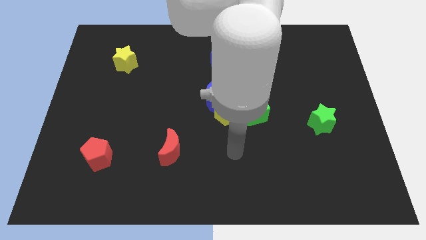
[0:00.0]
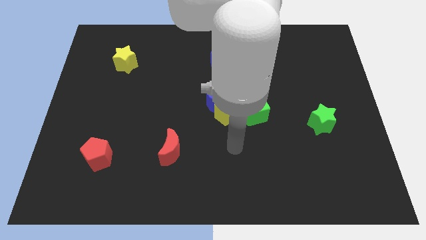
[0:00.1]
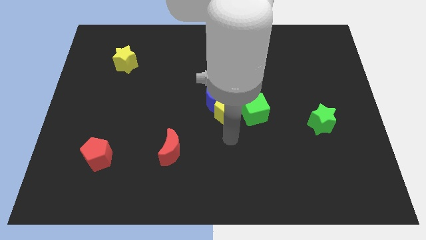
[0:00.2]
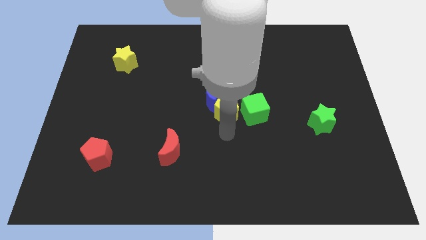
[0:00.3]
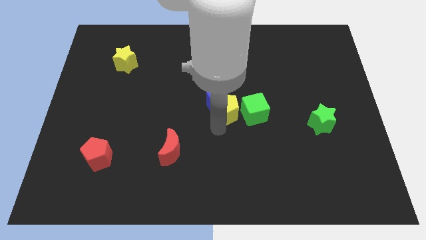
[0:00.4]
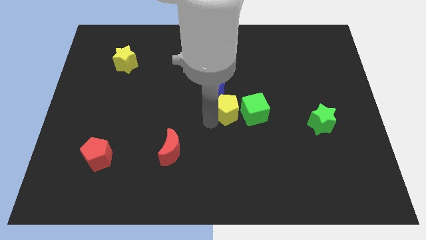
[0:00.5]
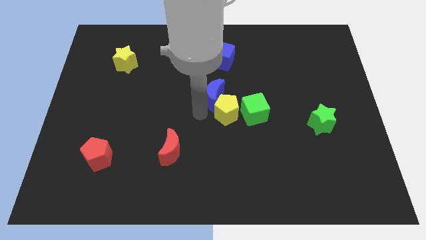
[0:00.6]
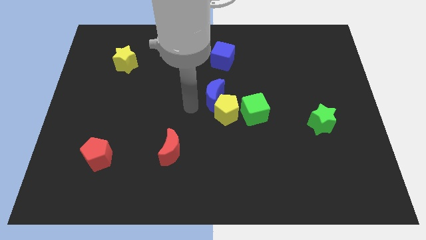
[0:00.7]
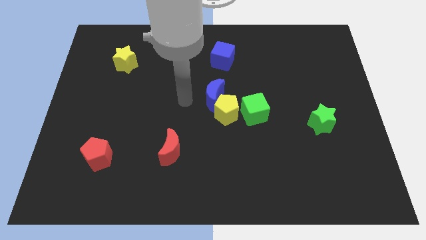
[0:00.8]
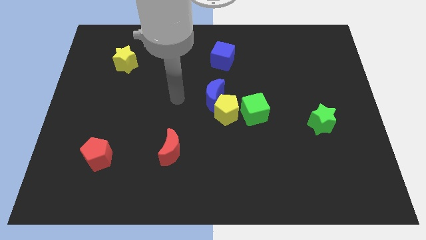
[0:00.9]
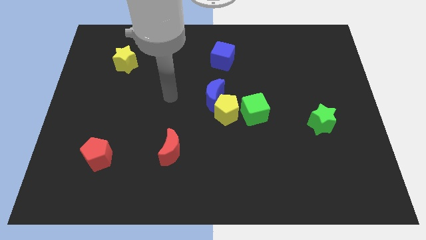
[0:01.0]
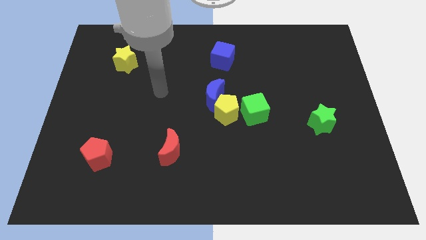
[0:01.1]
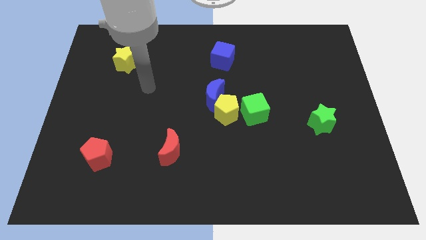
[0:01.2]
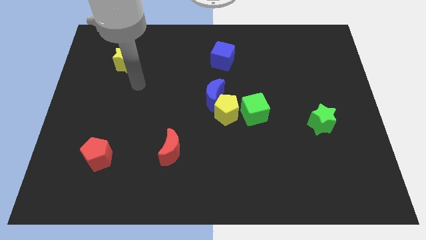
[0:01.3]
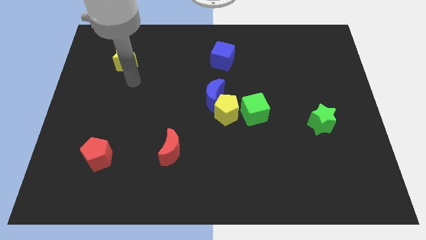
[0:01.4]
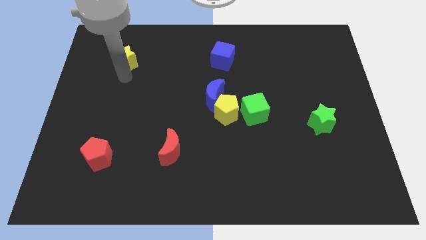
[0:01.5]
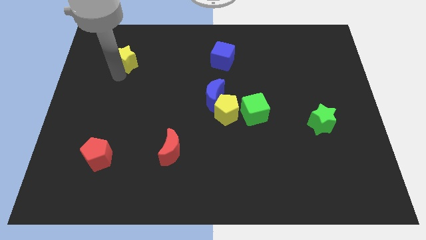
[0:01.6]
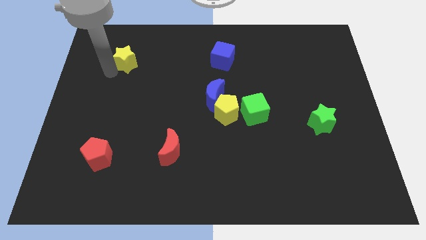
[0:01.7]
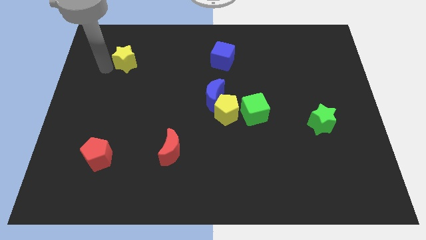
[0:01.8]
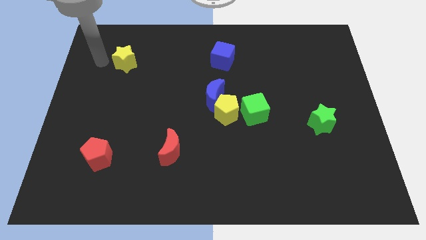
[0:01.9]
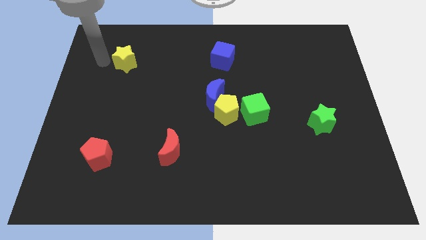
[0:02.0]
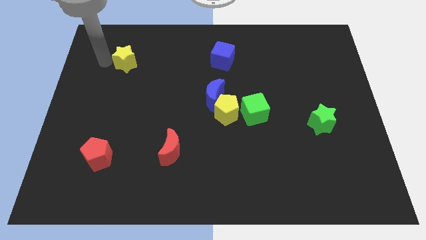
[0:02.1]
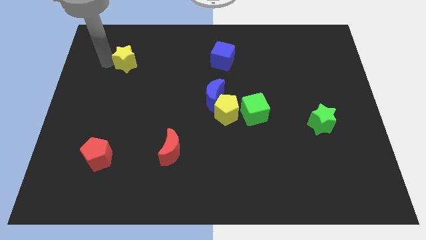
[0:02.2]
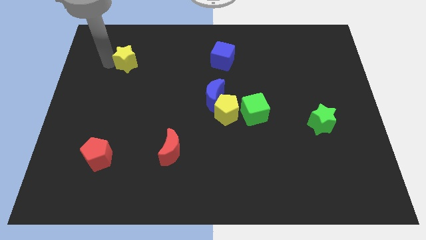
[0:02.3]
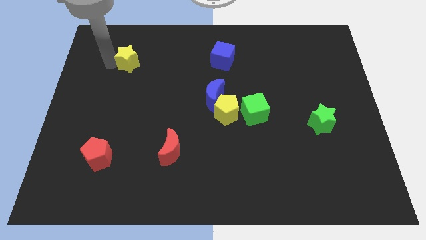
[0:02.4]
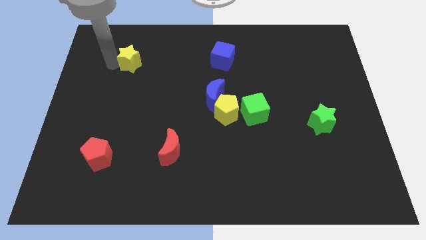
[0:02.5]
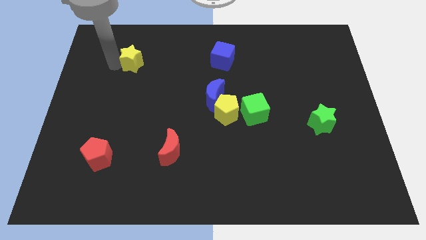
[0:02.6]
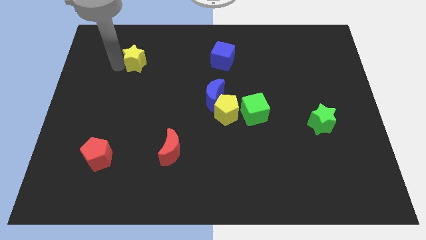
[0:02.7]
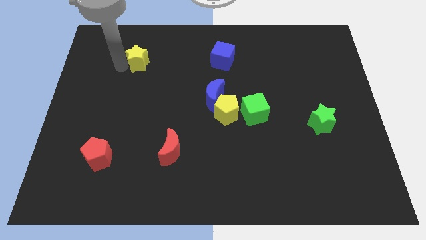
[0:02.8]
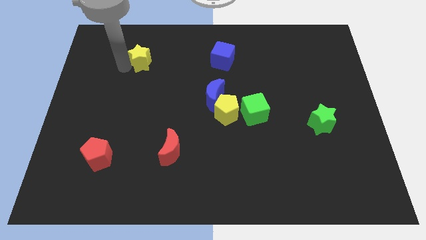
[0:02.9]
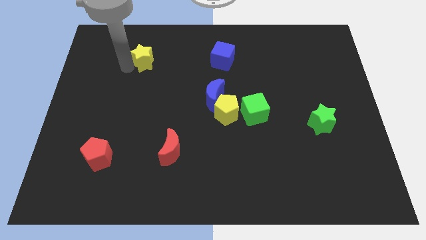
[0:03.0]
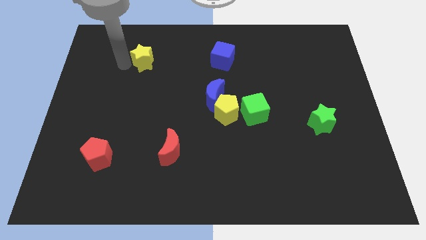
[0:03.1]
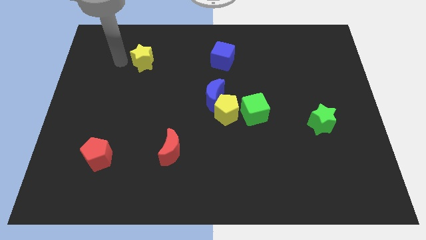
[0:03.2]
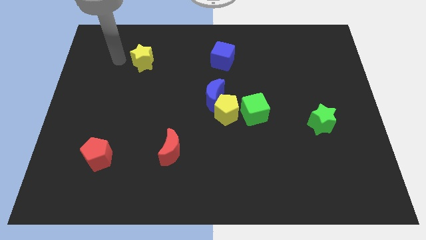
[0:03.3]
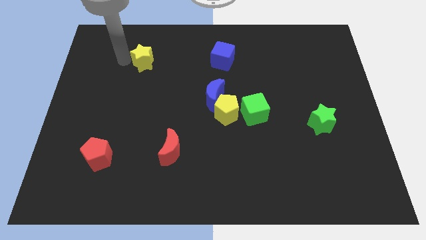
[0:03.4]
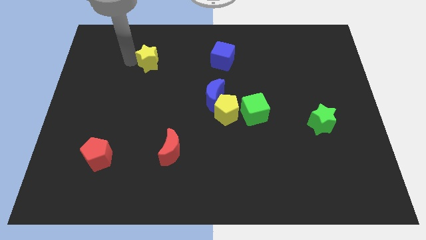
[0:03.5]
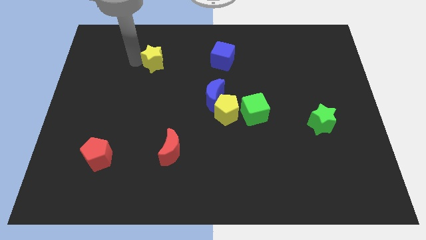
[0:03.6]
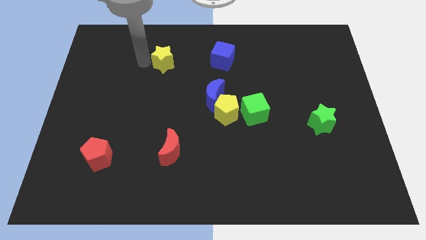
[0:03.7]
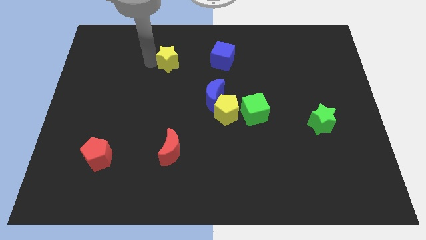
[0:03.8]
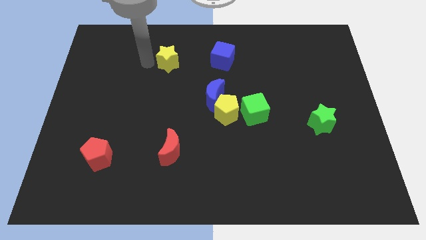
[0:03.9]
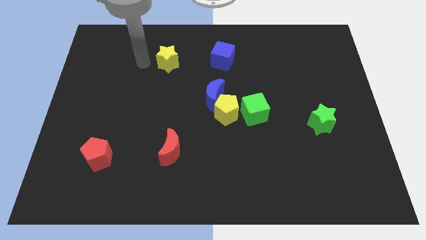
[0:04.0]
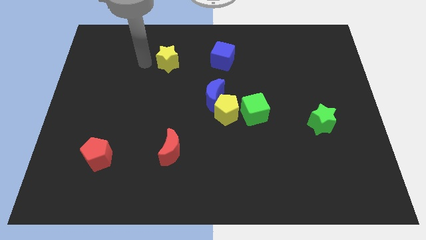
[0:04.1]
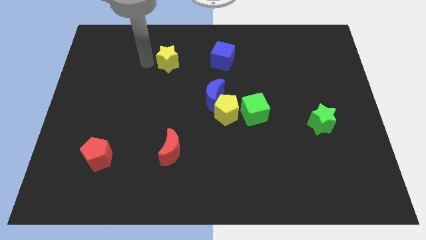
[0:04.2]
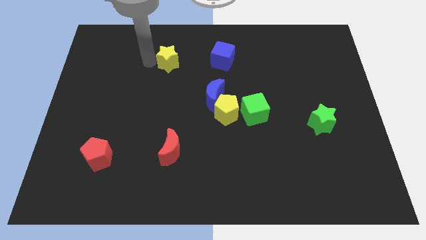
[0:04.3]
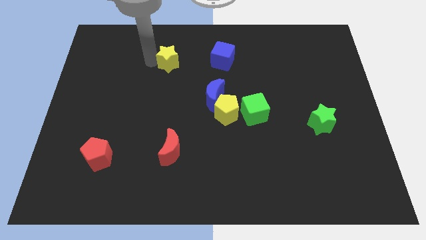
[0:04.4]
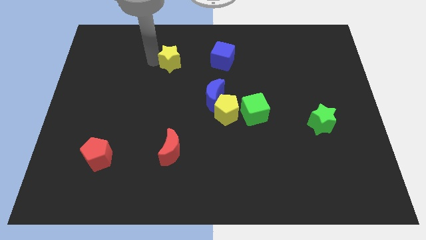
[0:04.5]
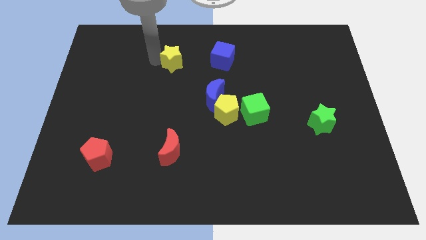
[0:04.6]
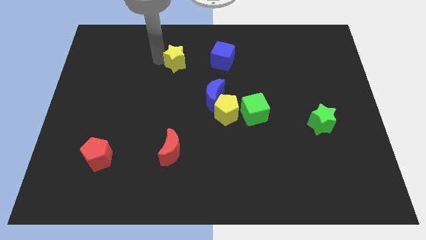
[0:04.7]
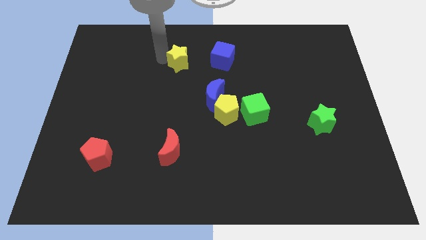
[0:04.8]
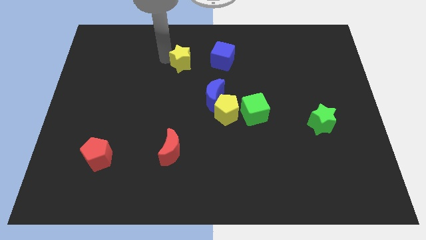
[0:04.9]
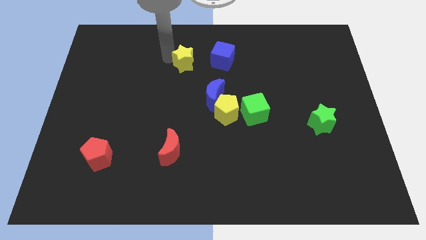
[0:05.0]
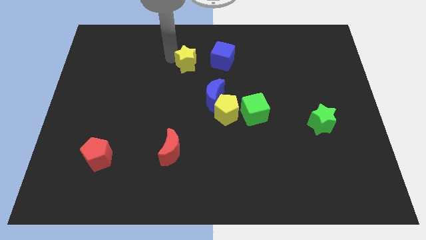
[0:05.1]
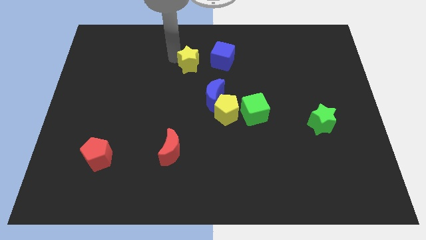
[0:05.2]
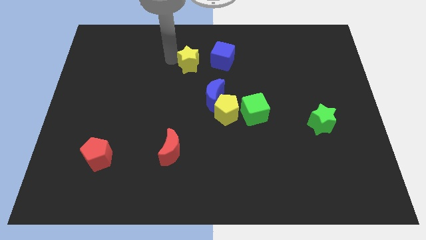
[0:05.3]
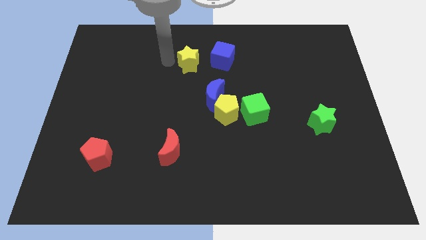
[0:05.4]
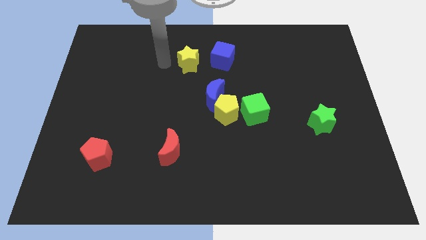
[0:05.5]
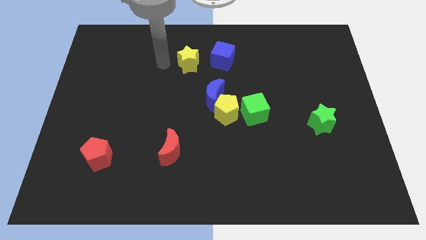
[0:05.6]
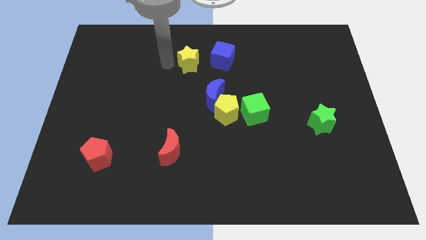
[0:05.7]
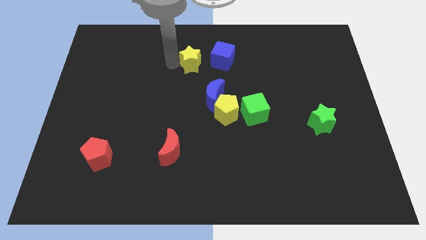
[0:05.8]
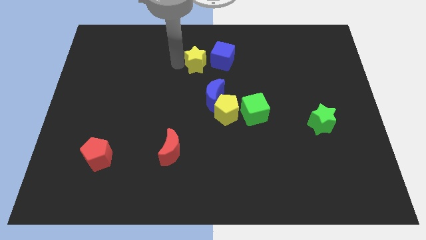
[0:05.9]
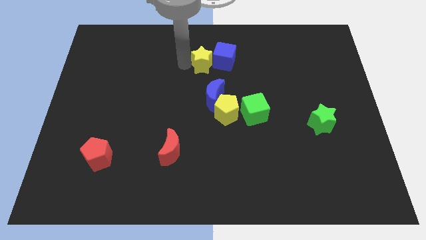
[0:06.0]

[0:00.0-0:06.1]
push the yellow star close to the blue cube

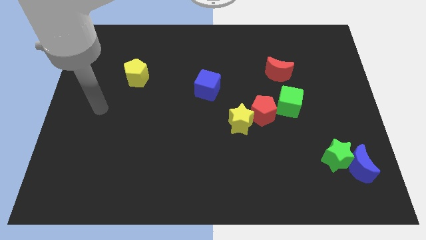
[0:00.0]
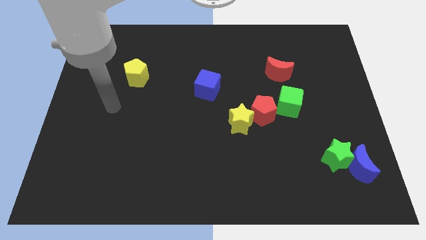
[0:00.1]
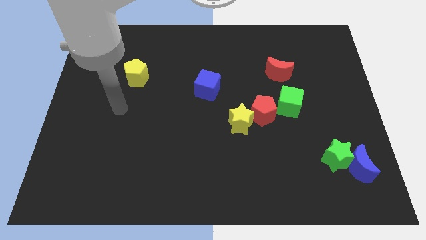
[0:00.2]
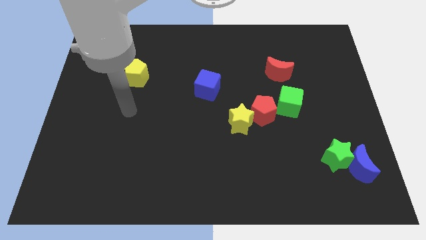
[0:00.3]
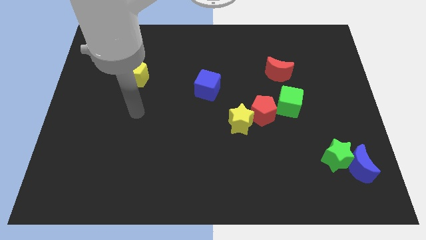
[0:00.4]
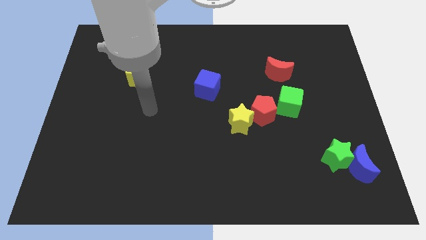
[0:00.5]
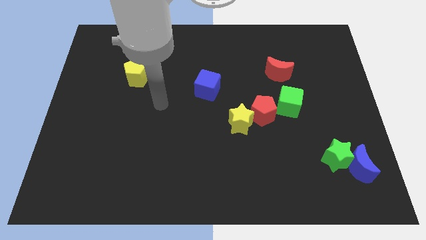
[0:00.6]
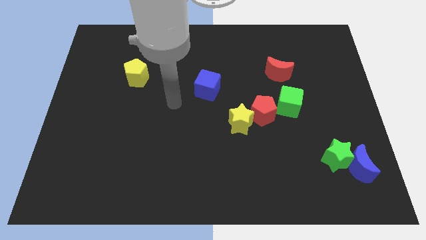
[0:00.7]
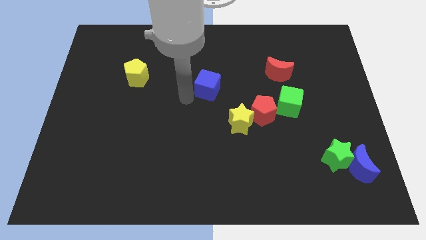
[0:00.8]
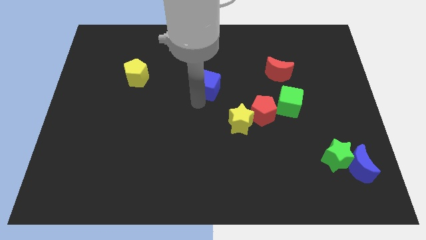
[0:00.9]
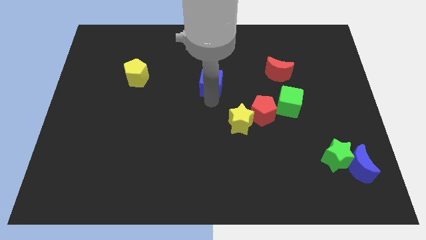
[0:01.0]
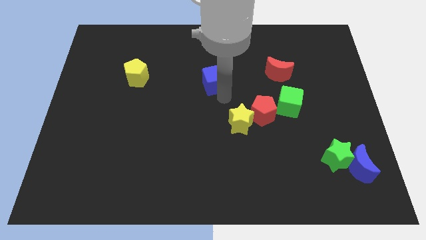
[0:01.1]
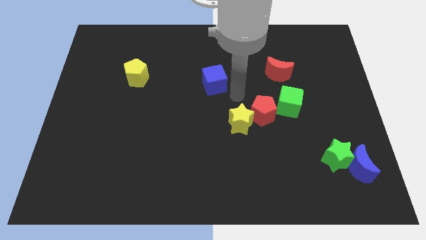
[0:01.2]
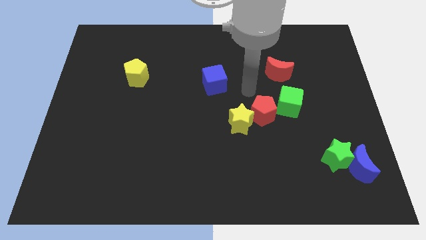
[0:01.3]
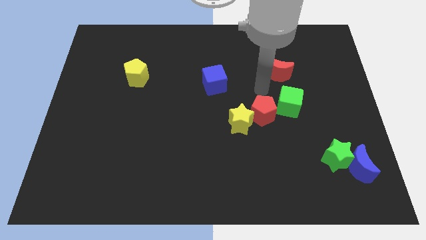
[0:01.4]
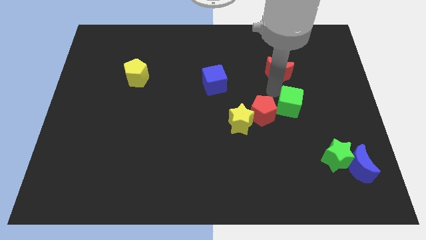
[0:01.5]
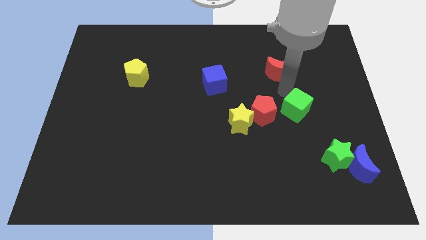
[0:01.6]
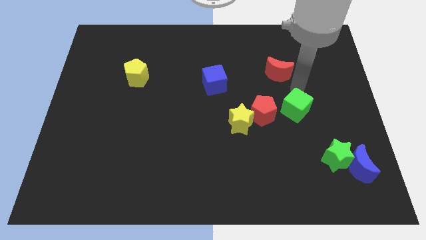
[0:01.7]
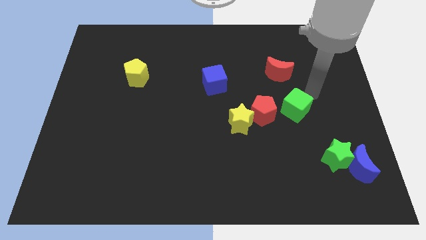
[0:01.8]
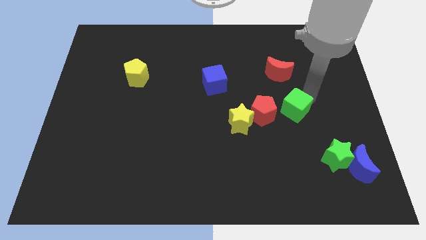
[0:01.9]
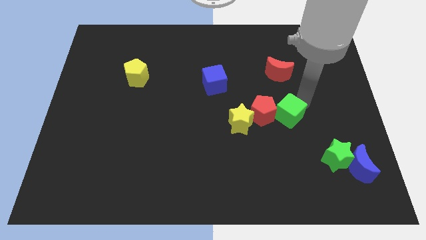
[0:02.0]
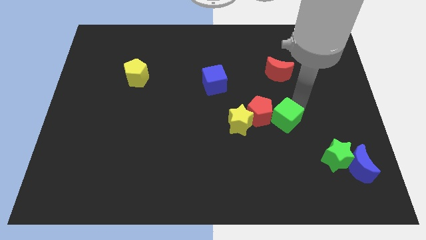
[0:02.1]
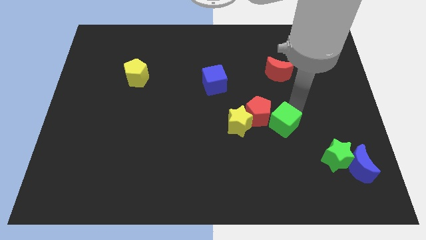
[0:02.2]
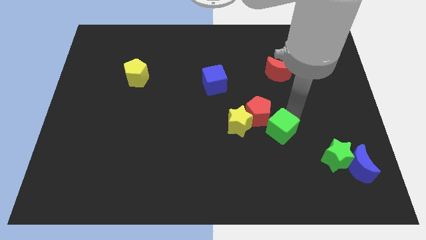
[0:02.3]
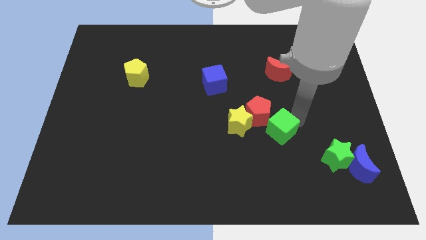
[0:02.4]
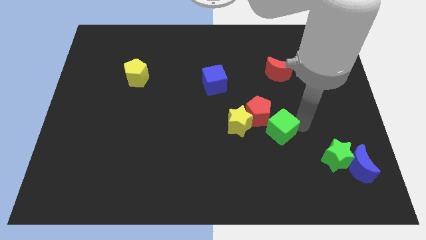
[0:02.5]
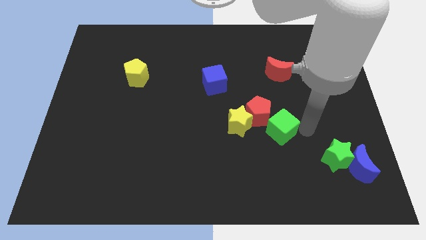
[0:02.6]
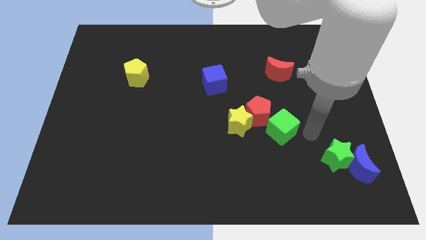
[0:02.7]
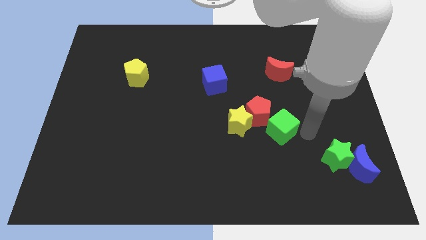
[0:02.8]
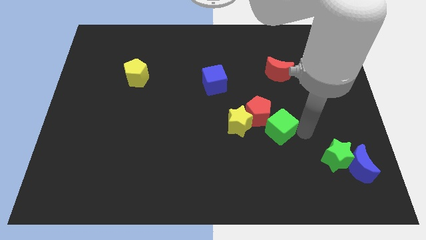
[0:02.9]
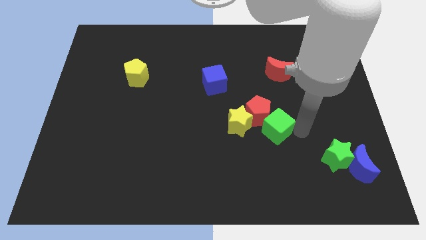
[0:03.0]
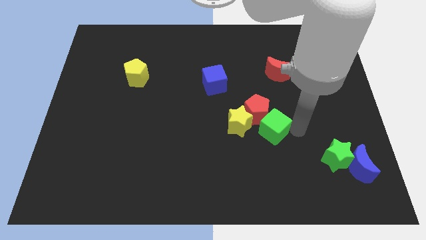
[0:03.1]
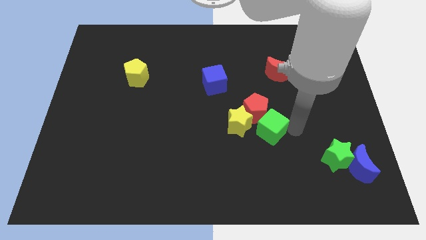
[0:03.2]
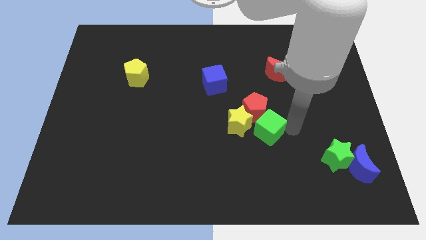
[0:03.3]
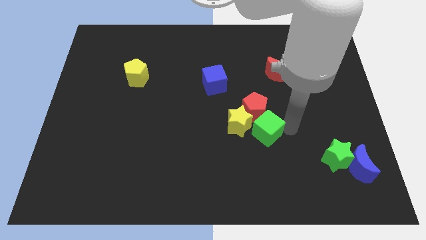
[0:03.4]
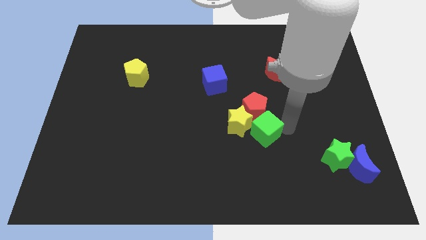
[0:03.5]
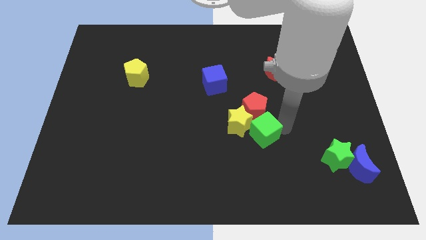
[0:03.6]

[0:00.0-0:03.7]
slide the green cube to the yellow star
